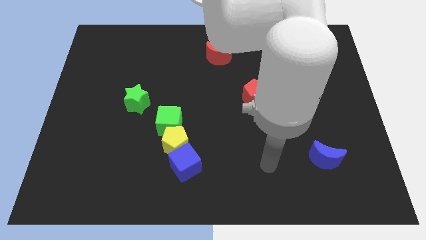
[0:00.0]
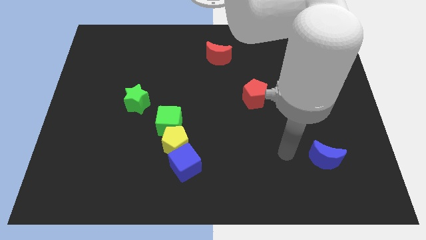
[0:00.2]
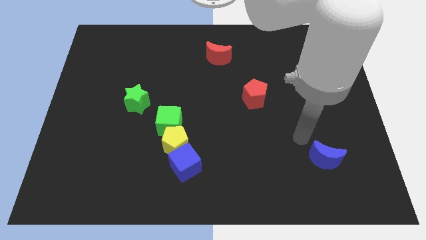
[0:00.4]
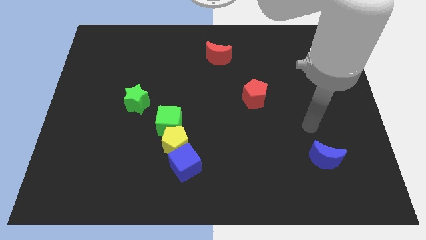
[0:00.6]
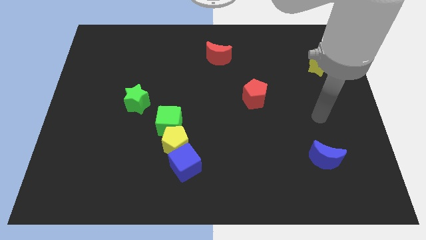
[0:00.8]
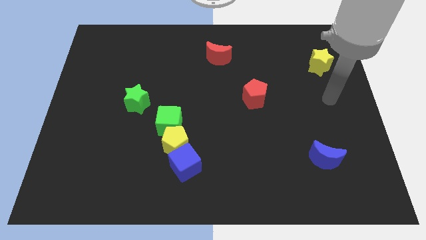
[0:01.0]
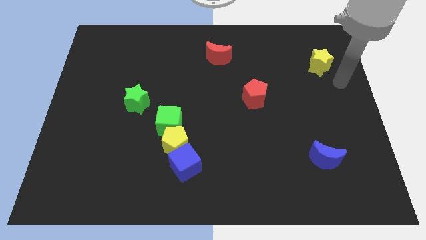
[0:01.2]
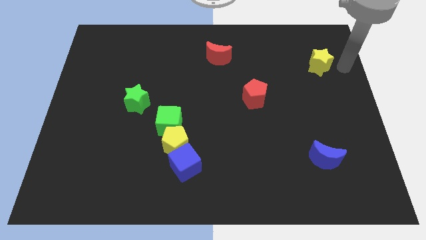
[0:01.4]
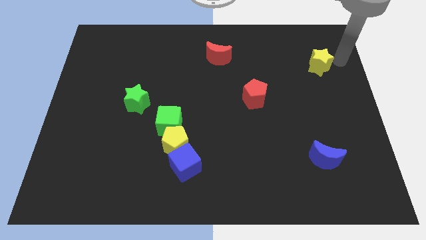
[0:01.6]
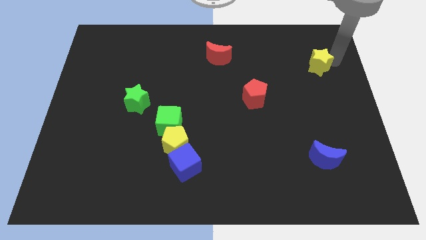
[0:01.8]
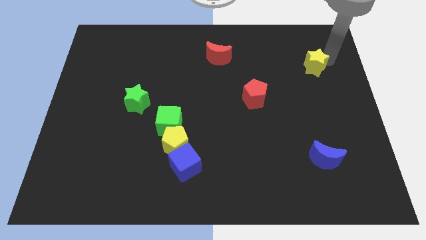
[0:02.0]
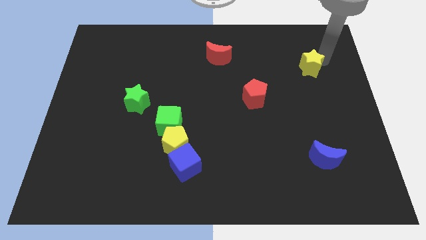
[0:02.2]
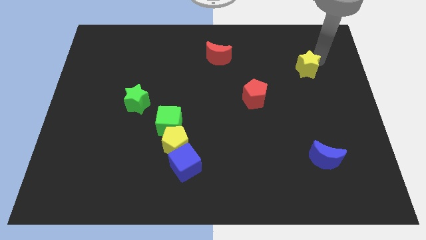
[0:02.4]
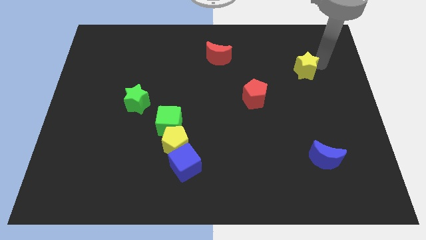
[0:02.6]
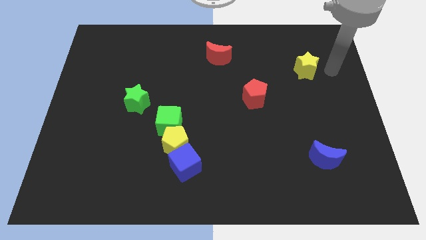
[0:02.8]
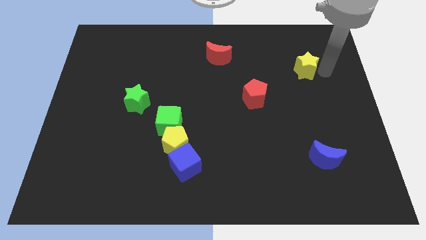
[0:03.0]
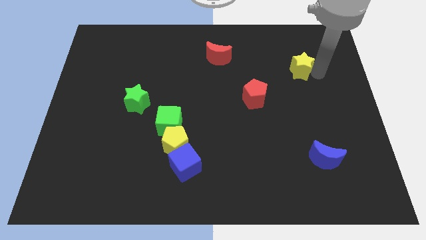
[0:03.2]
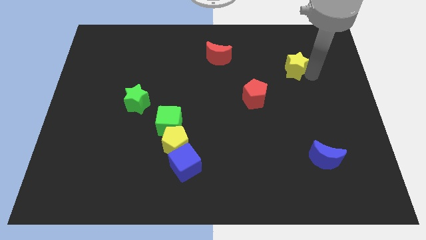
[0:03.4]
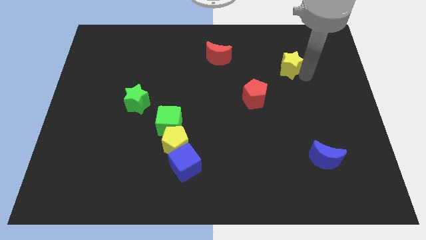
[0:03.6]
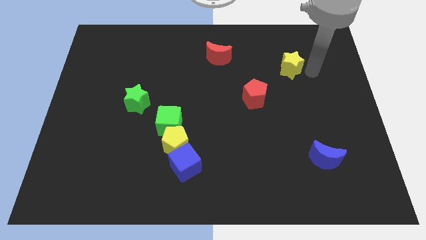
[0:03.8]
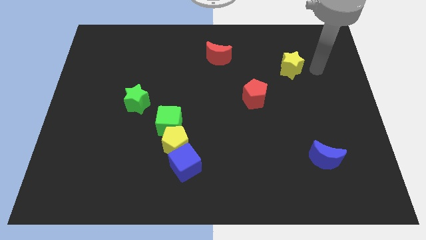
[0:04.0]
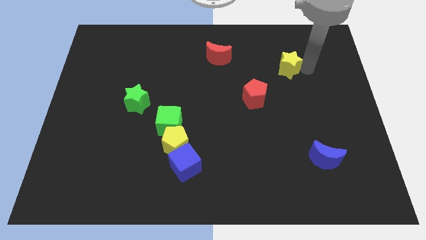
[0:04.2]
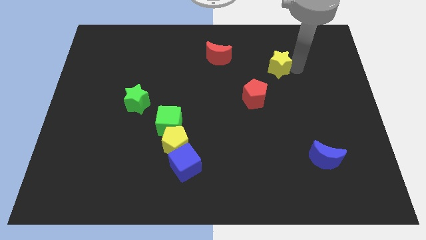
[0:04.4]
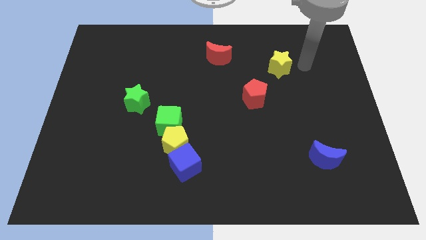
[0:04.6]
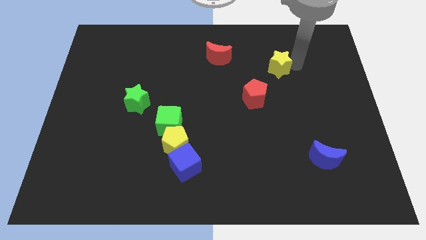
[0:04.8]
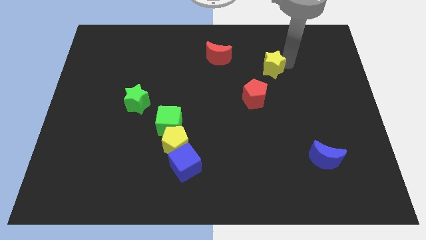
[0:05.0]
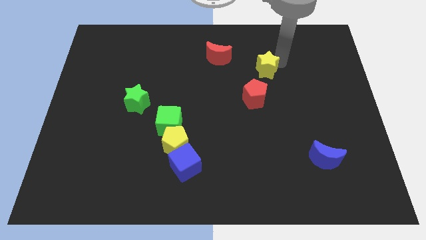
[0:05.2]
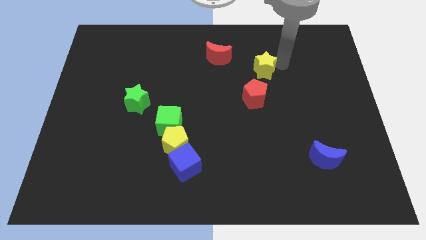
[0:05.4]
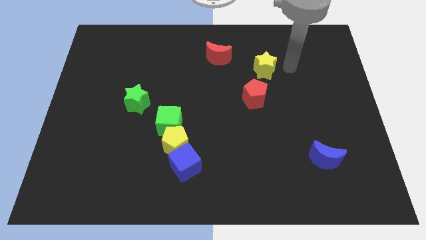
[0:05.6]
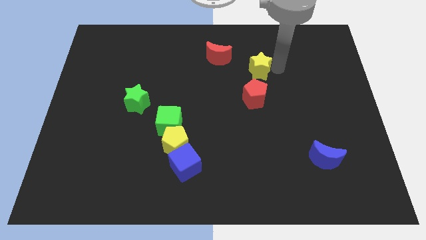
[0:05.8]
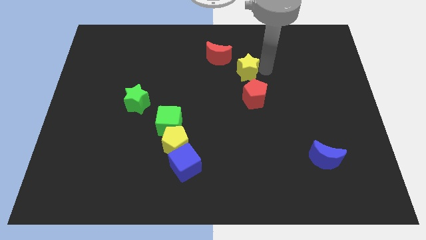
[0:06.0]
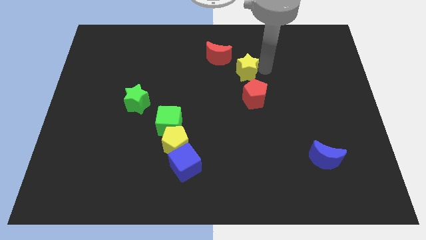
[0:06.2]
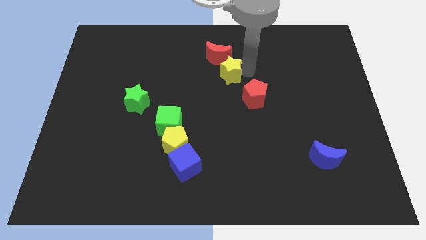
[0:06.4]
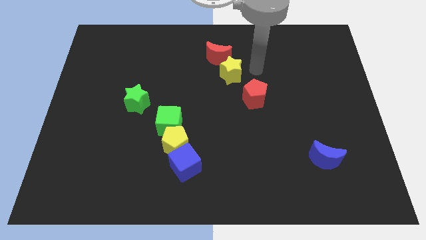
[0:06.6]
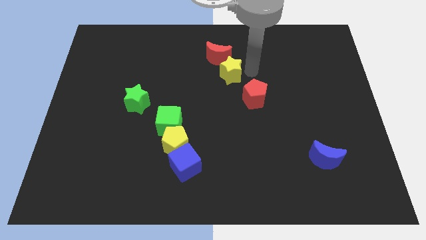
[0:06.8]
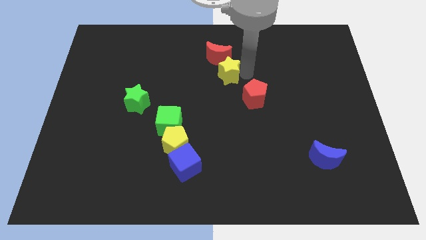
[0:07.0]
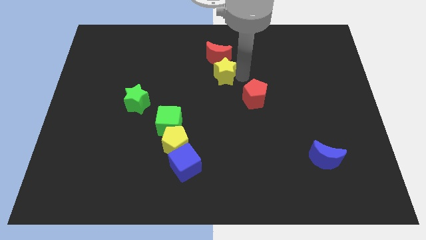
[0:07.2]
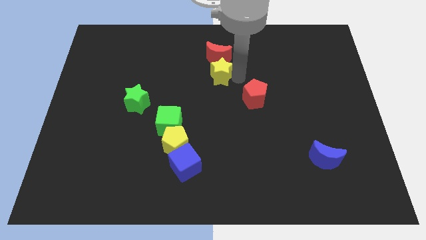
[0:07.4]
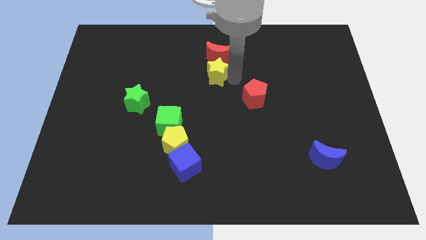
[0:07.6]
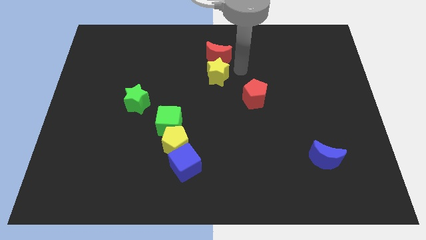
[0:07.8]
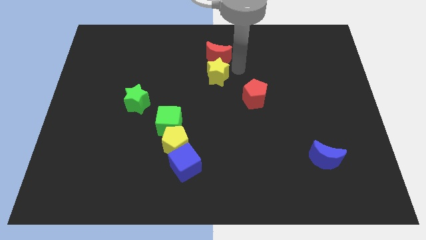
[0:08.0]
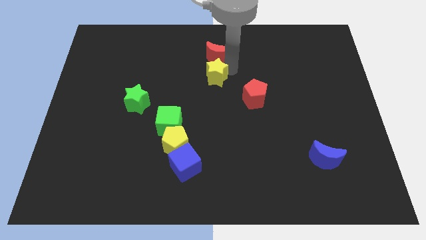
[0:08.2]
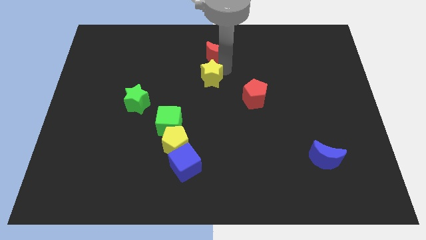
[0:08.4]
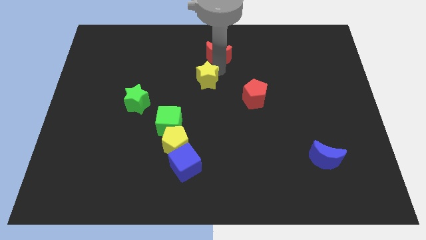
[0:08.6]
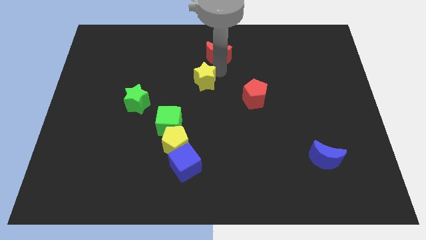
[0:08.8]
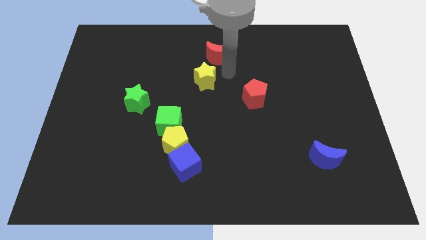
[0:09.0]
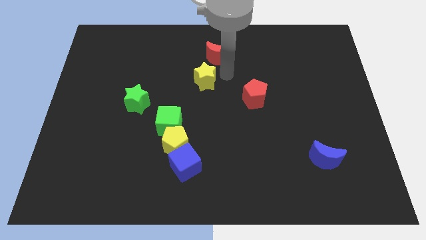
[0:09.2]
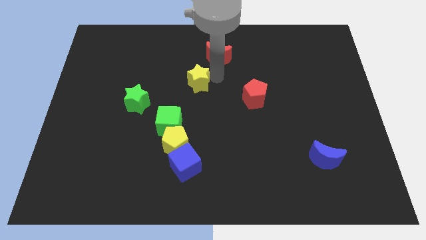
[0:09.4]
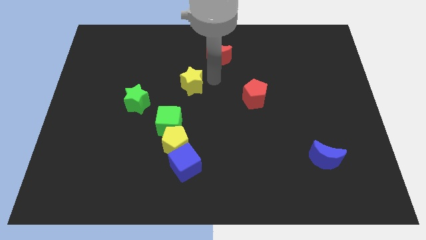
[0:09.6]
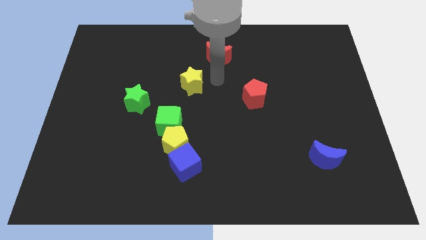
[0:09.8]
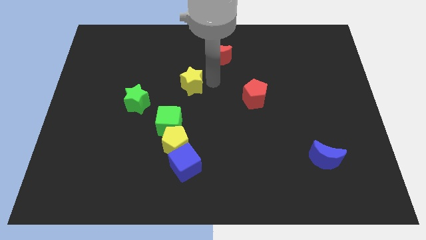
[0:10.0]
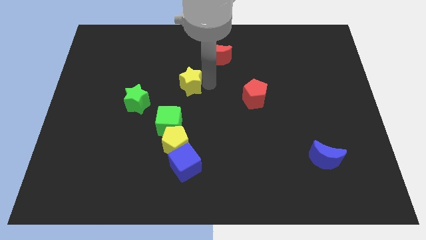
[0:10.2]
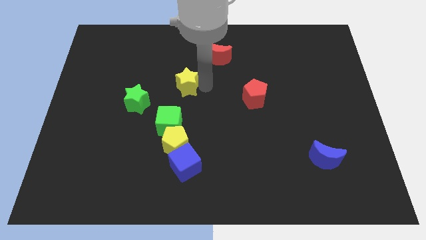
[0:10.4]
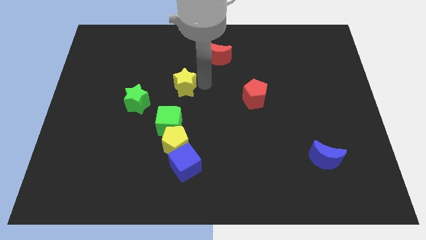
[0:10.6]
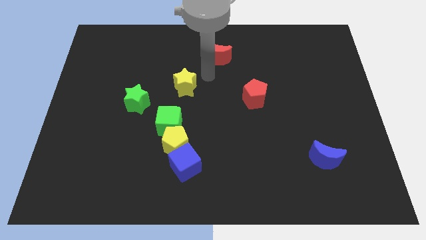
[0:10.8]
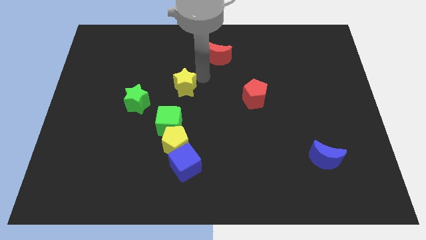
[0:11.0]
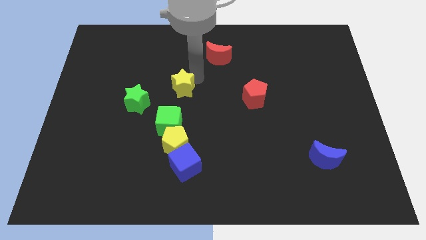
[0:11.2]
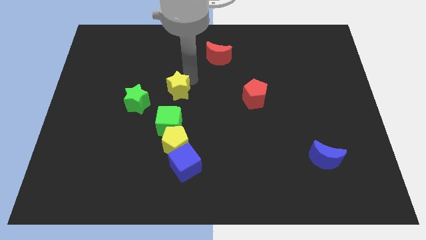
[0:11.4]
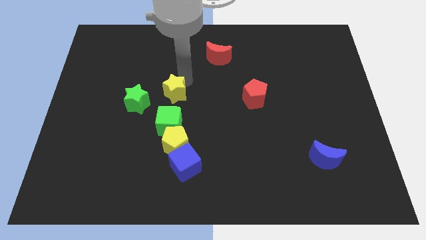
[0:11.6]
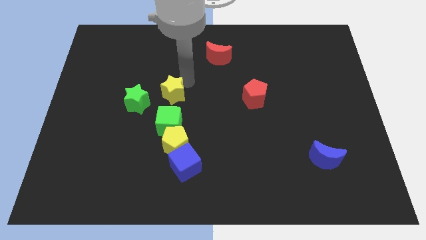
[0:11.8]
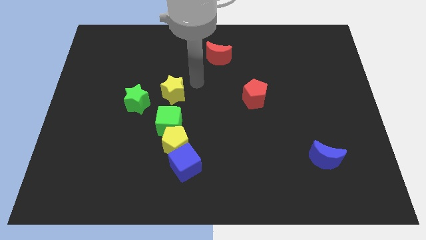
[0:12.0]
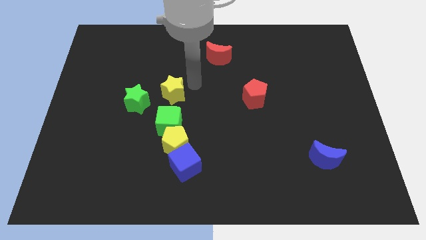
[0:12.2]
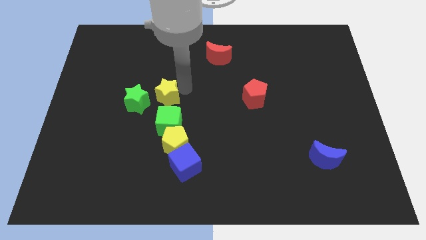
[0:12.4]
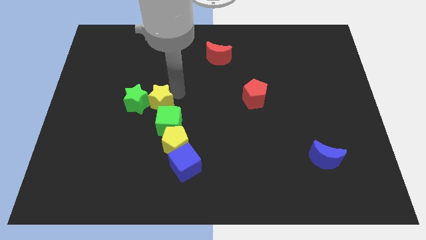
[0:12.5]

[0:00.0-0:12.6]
move the yellow star close to the green star

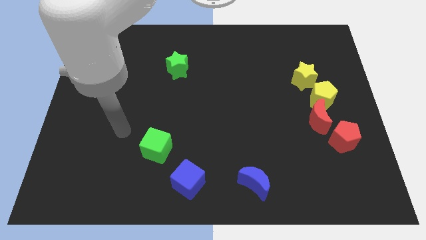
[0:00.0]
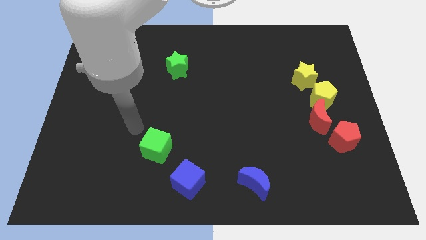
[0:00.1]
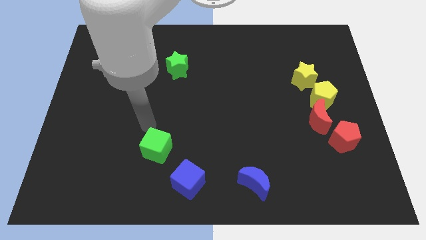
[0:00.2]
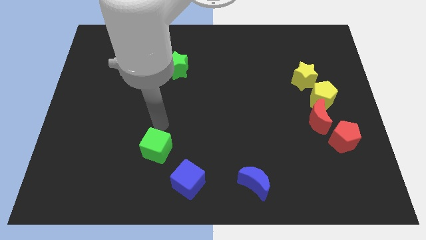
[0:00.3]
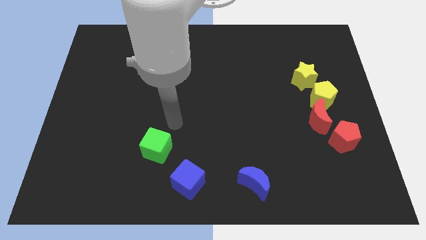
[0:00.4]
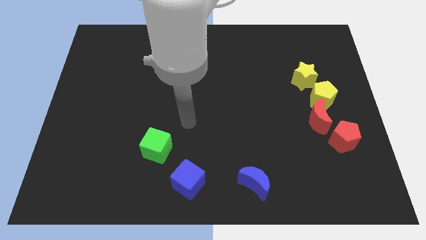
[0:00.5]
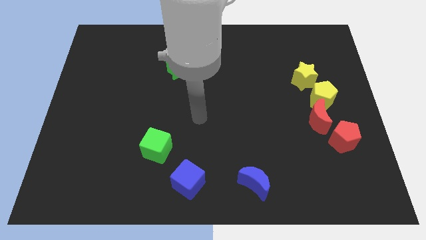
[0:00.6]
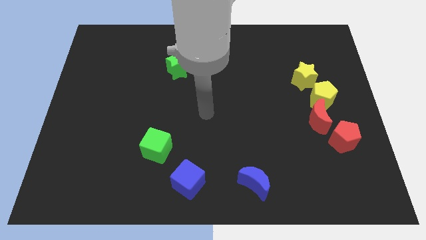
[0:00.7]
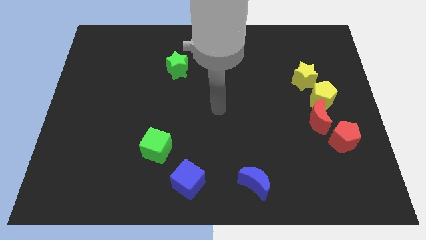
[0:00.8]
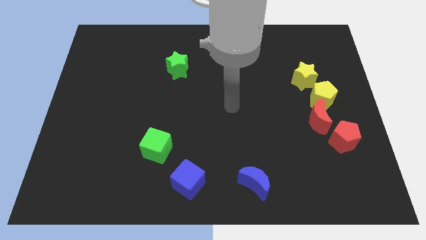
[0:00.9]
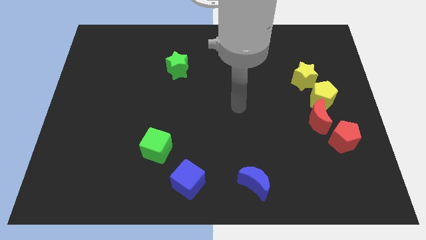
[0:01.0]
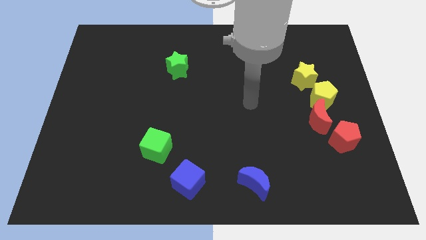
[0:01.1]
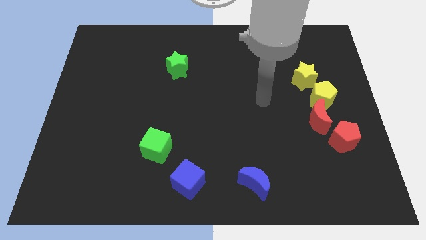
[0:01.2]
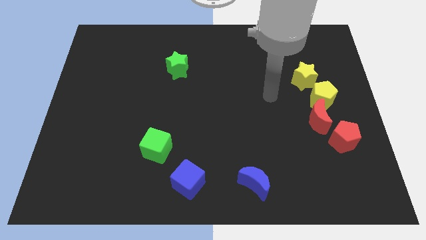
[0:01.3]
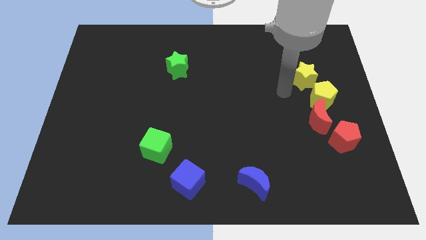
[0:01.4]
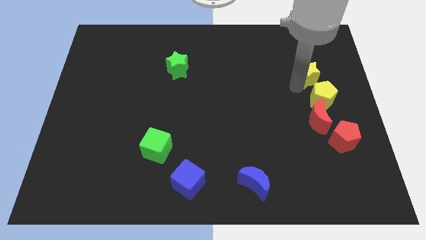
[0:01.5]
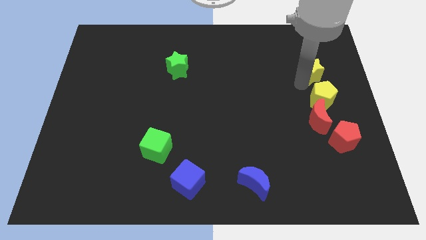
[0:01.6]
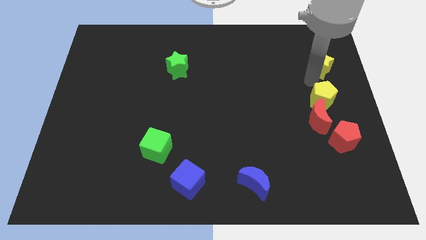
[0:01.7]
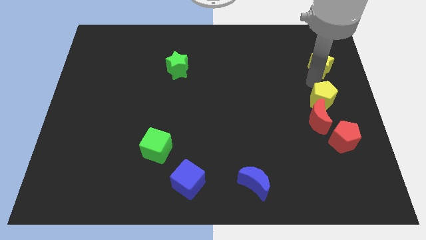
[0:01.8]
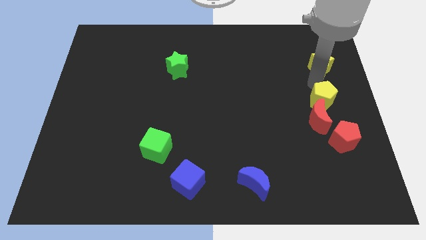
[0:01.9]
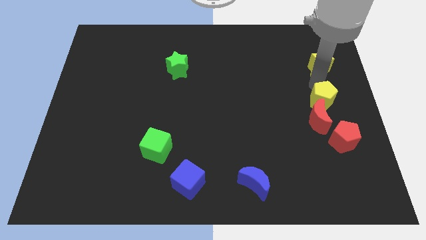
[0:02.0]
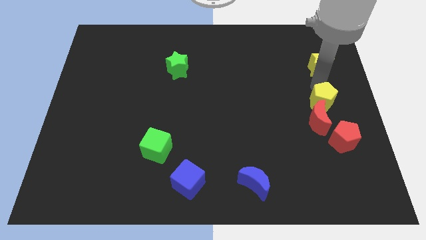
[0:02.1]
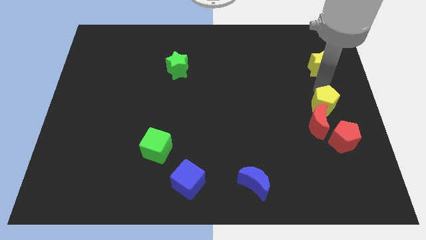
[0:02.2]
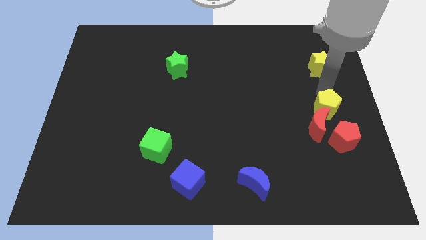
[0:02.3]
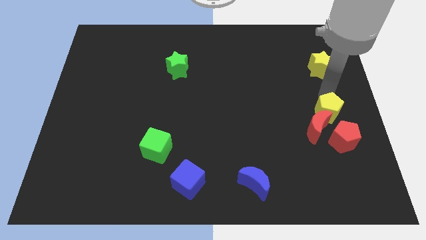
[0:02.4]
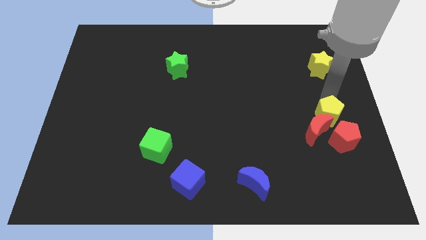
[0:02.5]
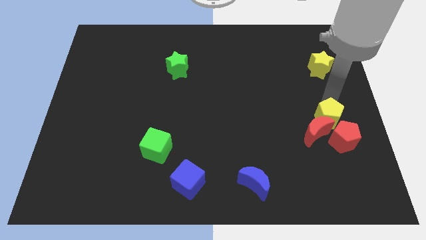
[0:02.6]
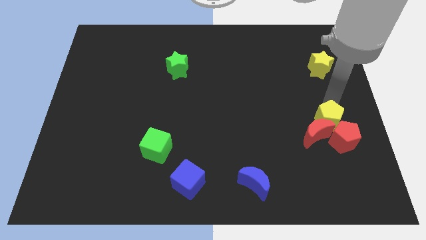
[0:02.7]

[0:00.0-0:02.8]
put the yellow pentagon next to the red pentagon
